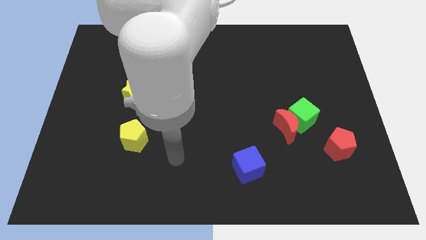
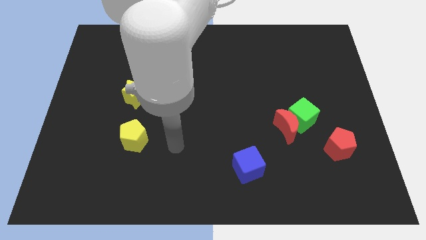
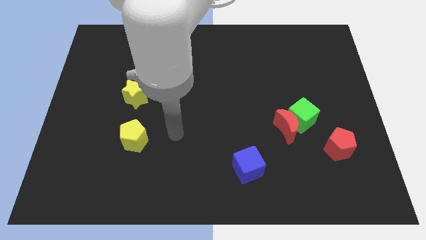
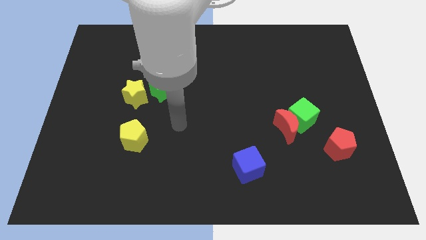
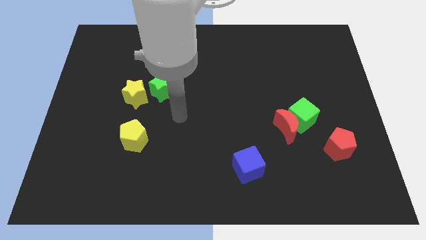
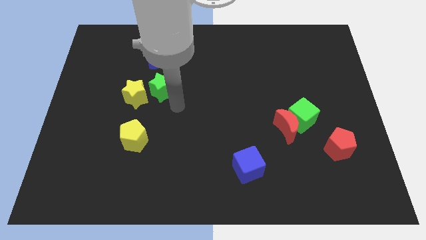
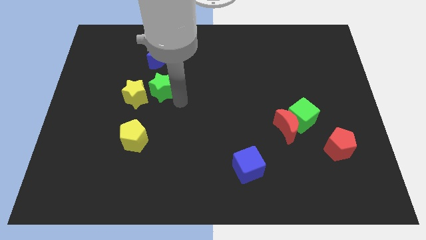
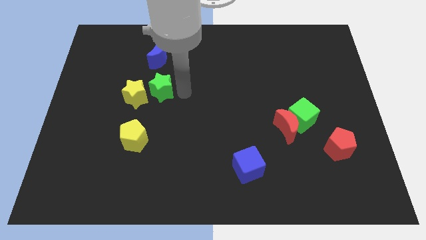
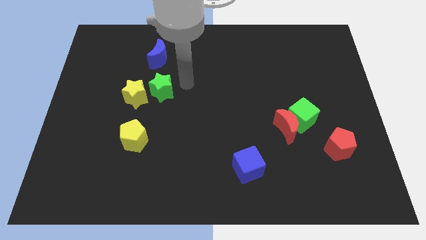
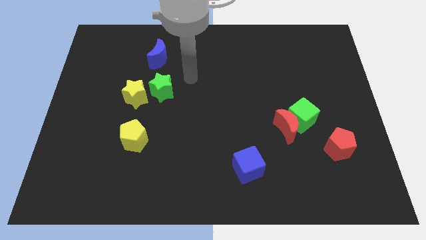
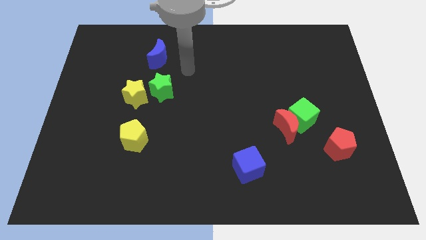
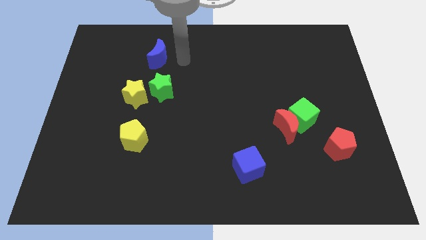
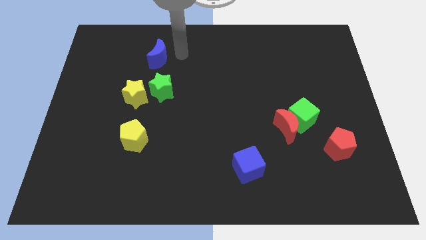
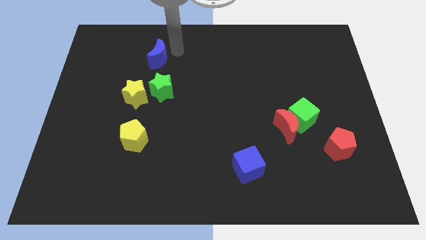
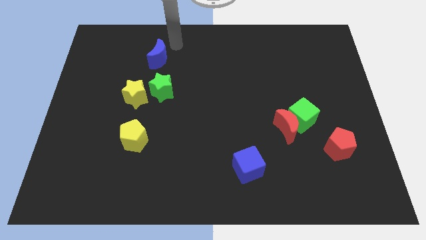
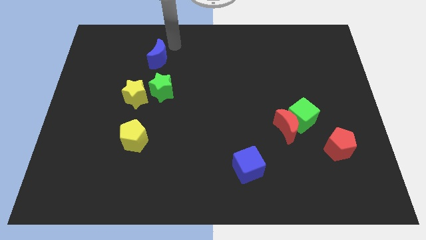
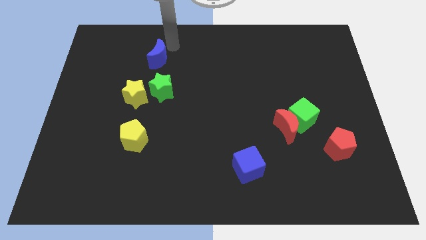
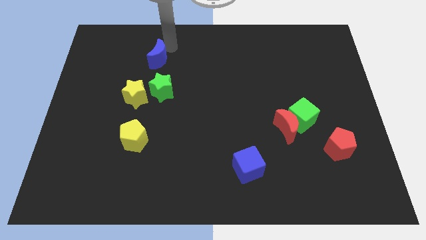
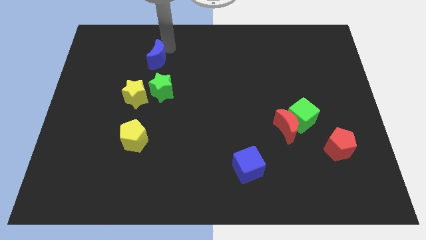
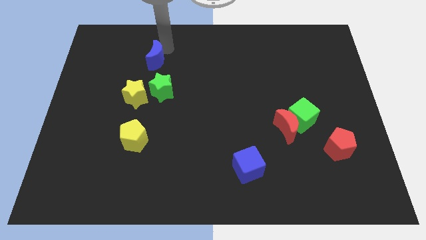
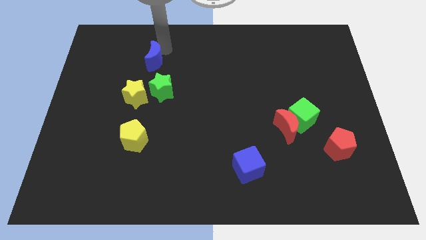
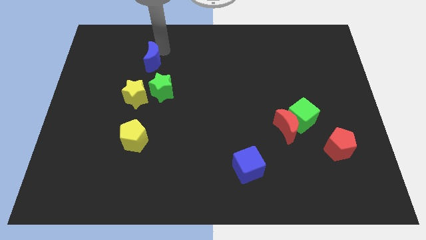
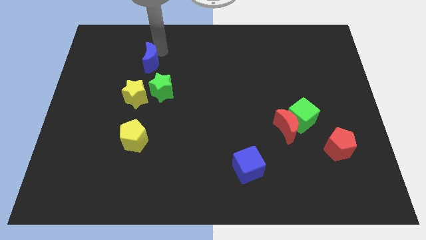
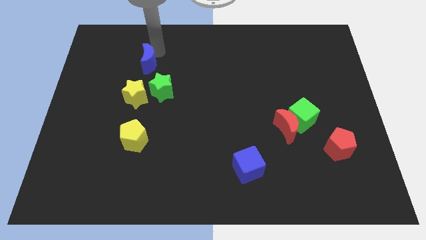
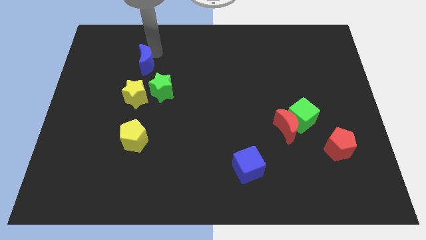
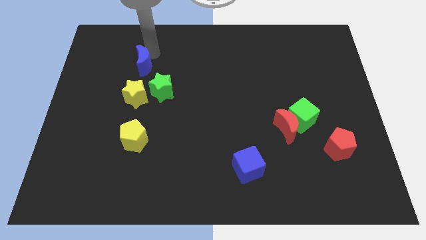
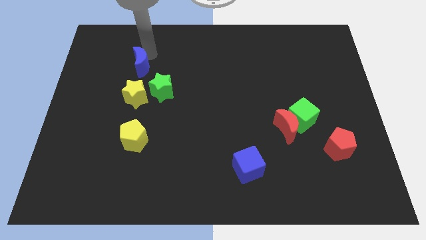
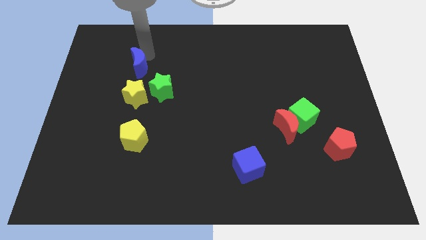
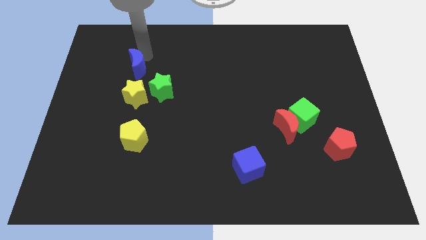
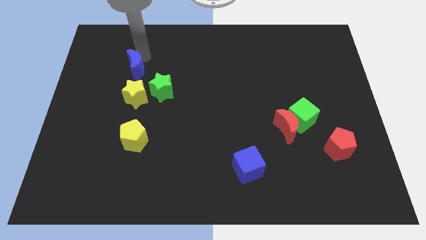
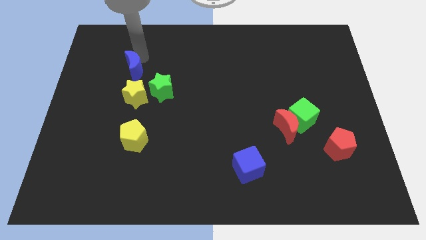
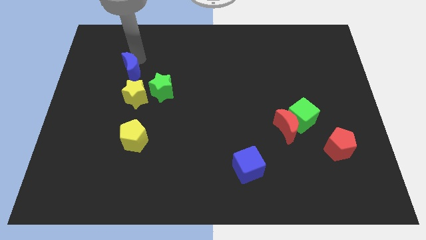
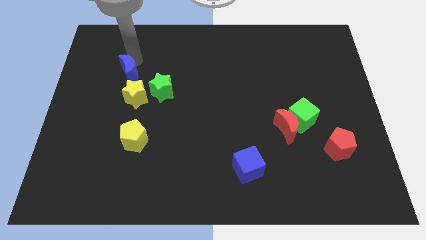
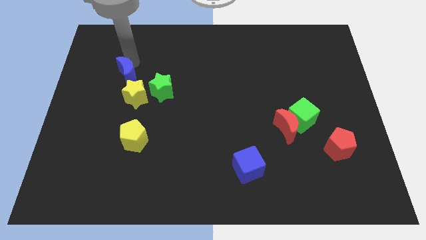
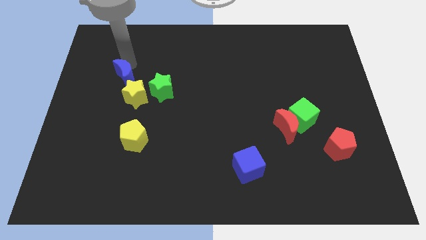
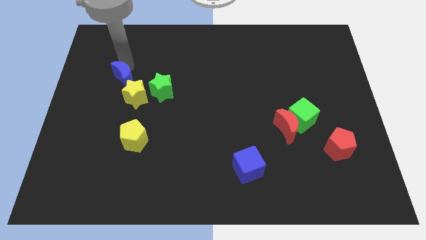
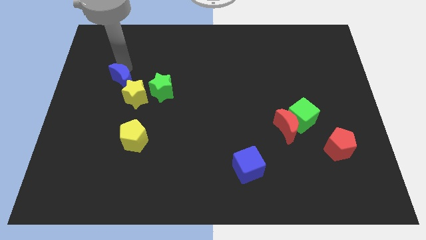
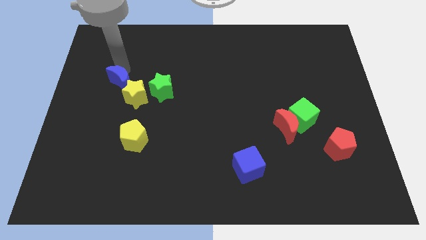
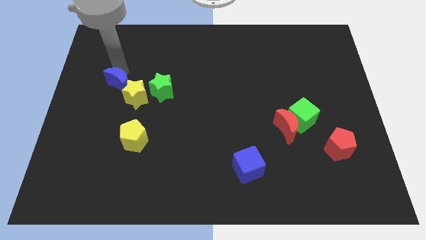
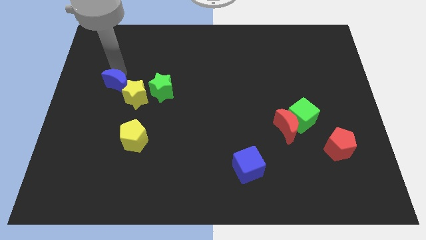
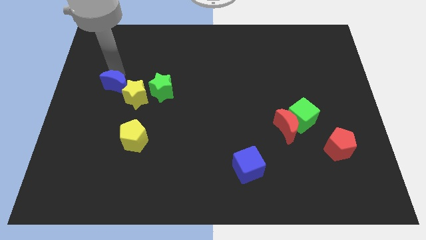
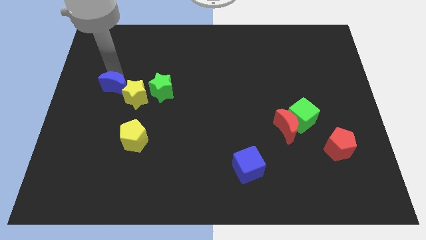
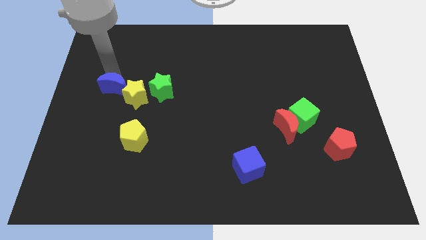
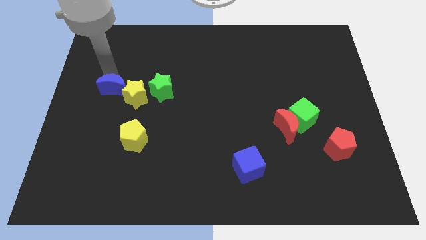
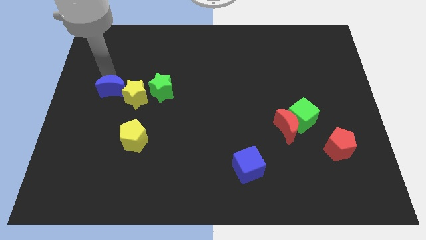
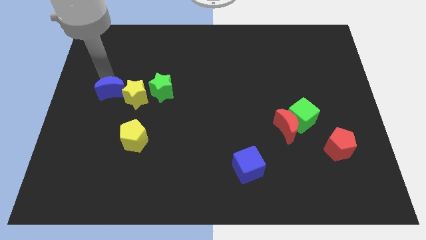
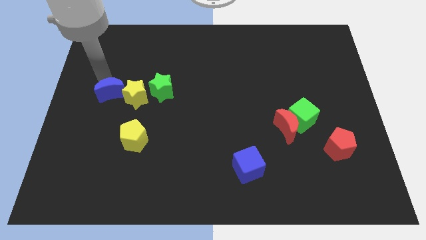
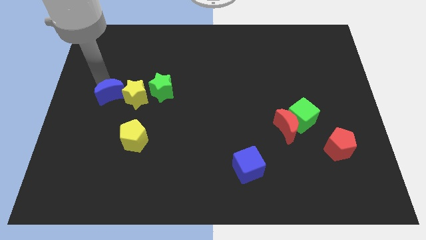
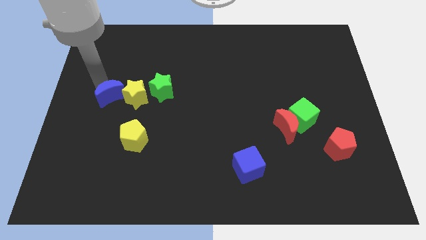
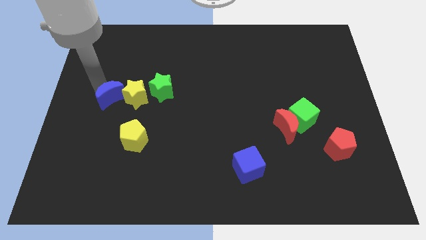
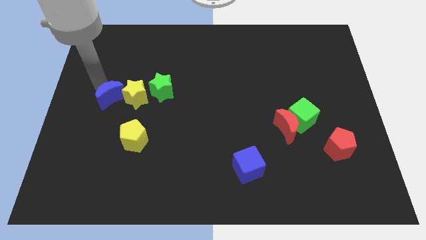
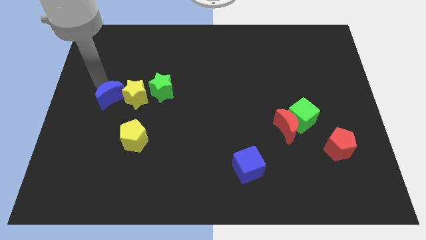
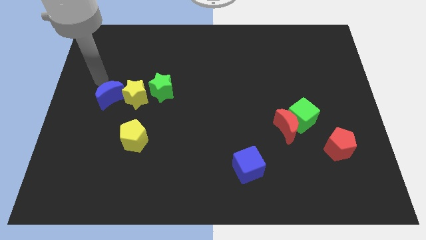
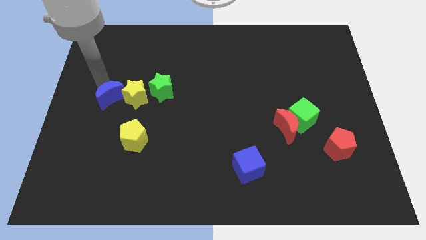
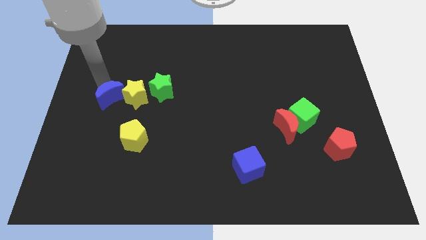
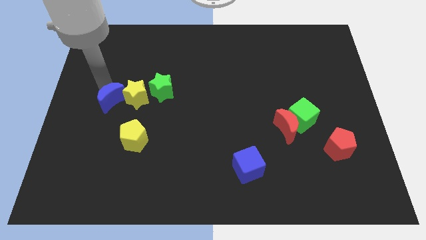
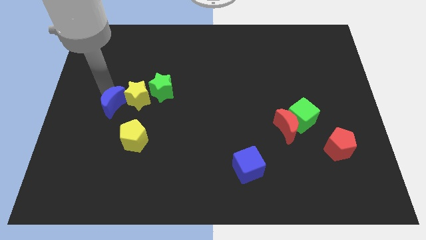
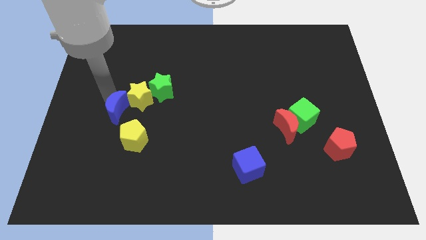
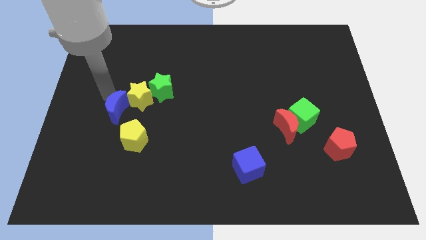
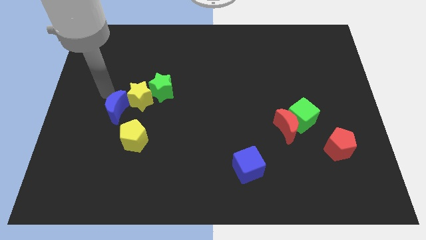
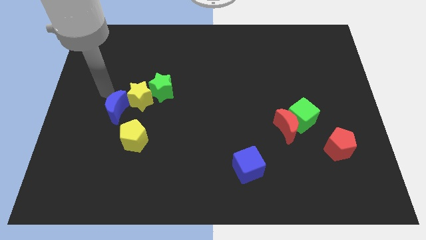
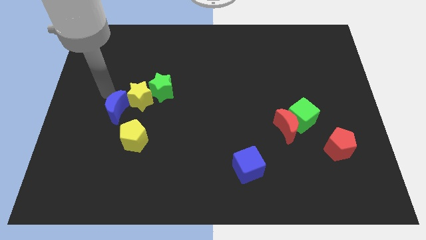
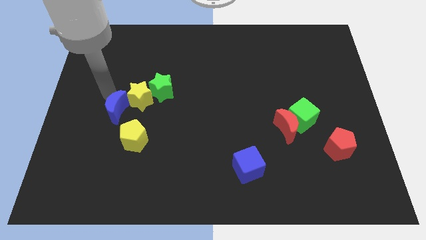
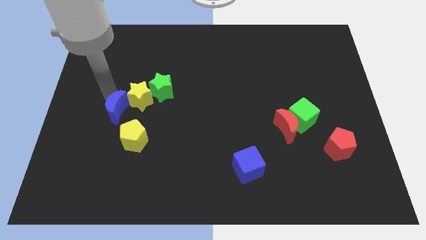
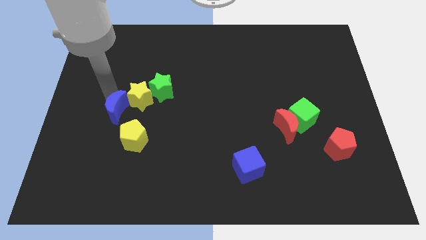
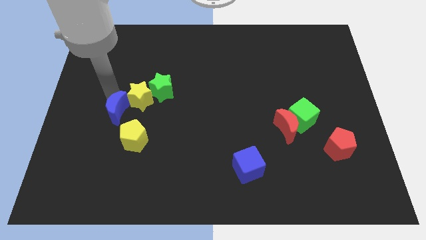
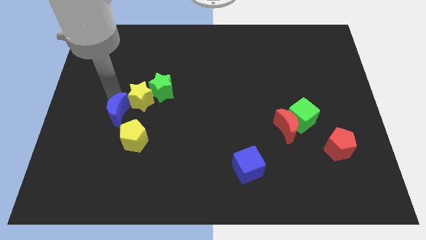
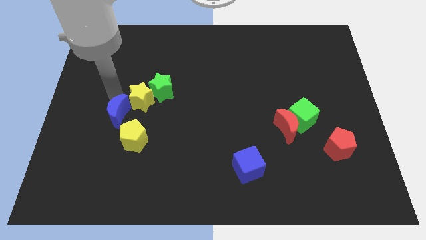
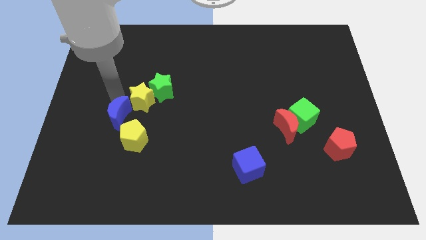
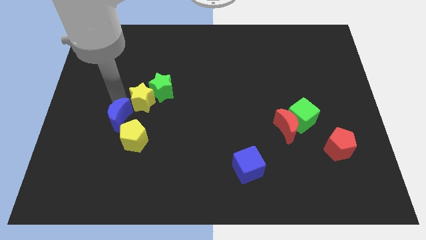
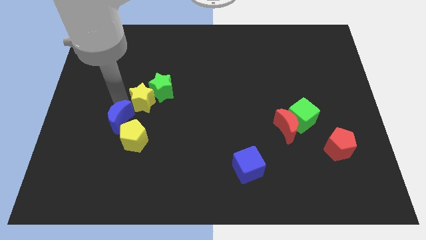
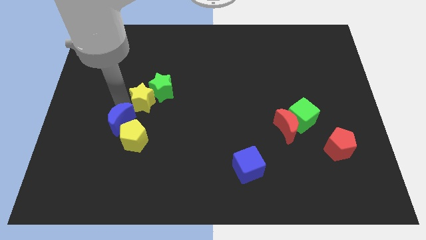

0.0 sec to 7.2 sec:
slide the blue moon close to the yellow pentagon
